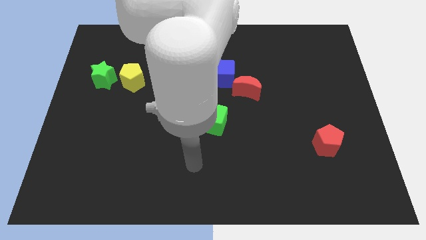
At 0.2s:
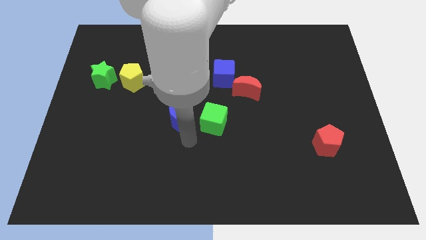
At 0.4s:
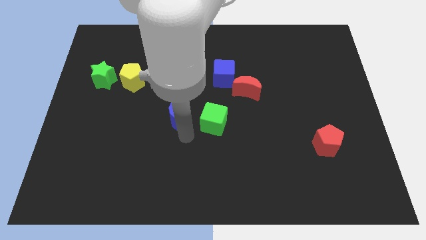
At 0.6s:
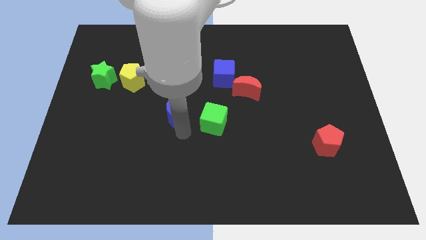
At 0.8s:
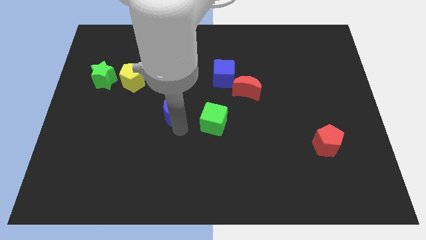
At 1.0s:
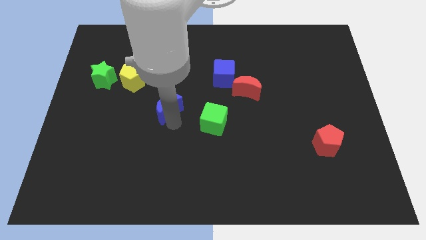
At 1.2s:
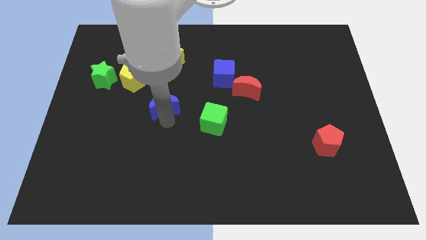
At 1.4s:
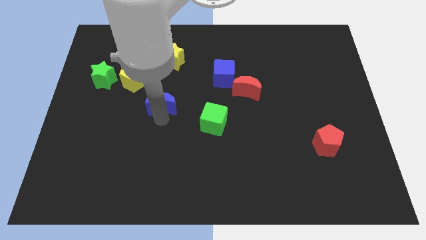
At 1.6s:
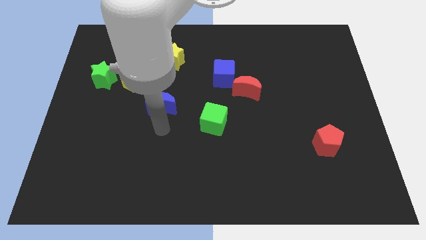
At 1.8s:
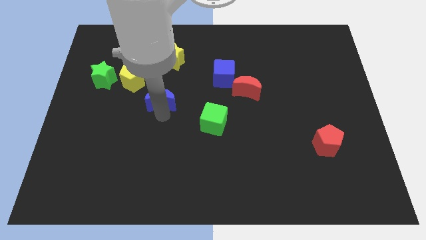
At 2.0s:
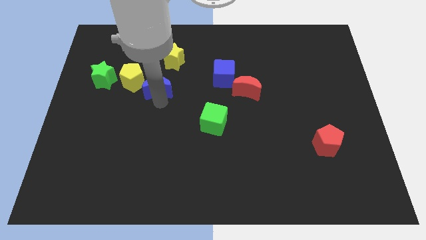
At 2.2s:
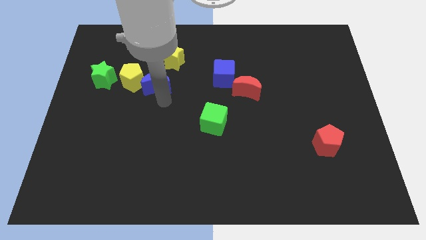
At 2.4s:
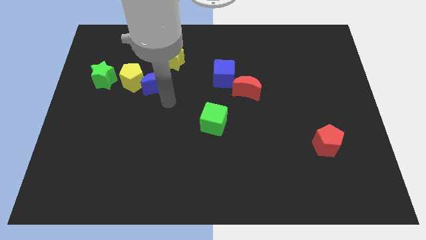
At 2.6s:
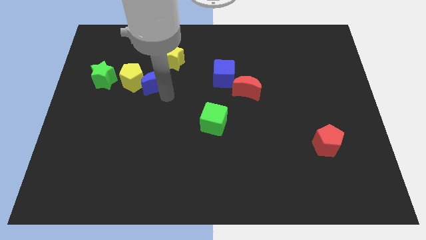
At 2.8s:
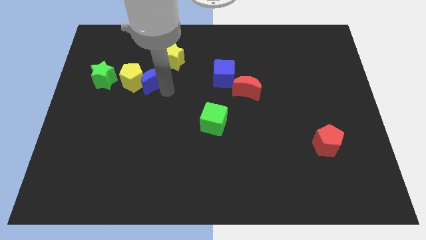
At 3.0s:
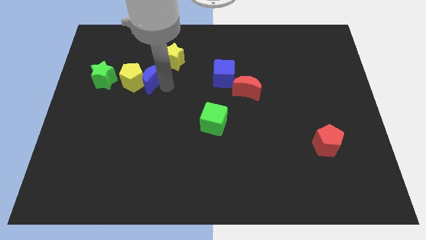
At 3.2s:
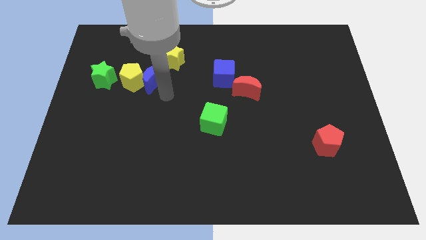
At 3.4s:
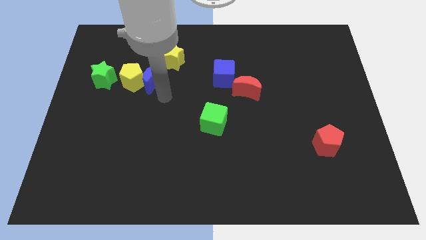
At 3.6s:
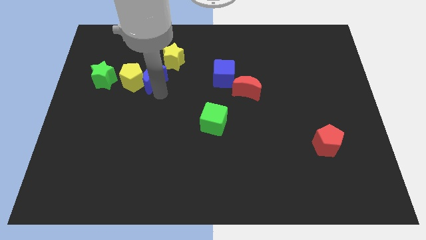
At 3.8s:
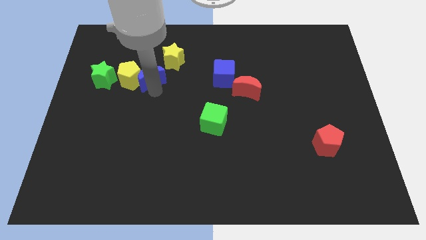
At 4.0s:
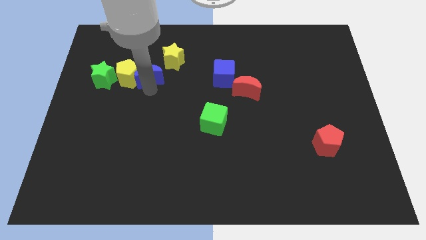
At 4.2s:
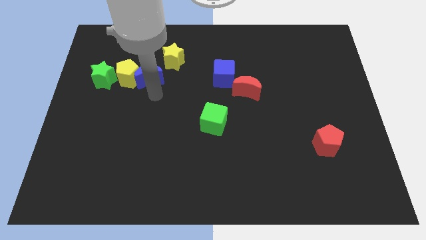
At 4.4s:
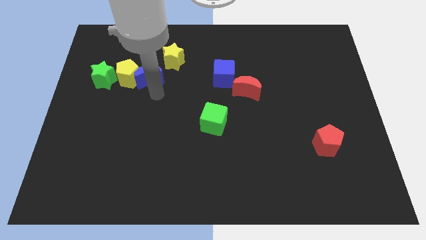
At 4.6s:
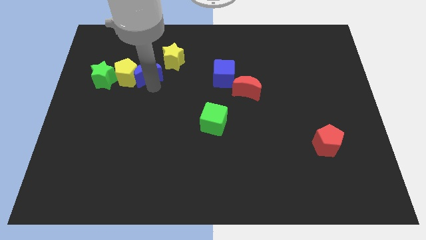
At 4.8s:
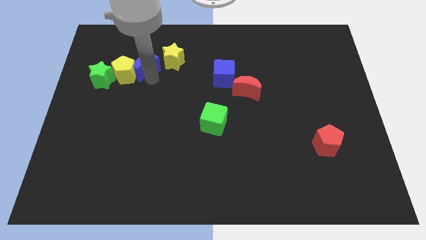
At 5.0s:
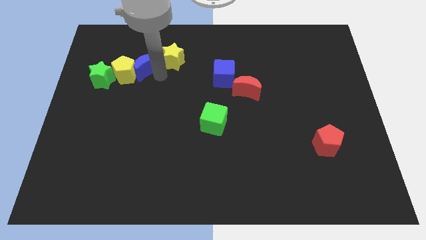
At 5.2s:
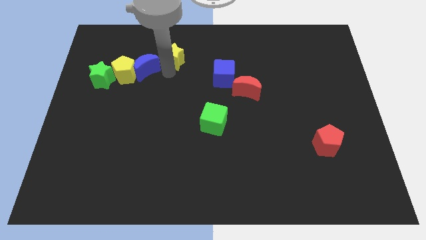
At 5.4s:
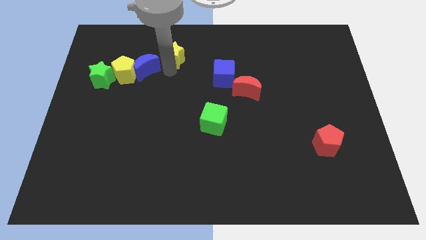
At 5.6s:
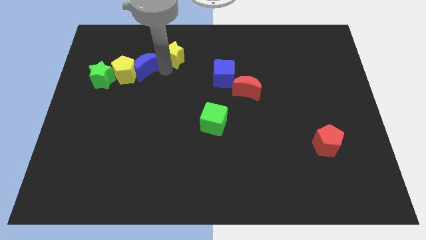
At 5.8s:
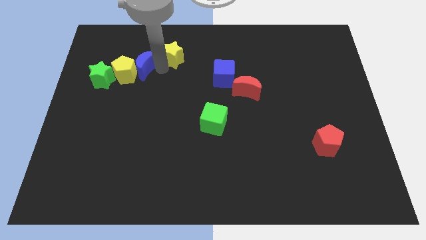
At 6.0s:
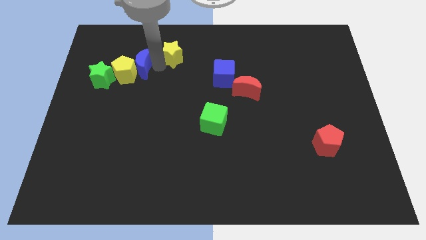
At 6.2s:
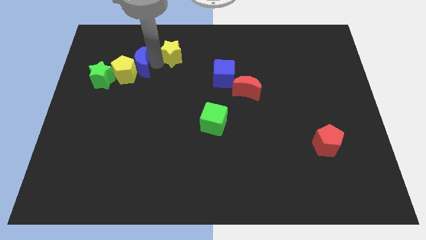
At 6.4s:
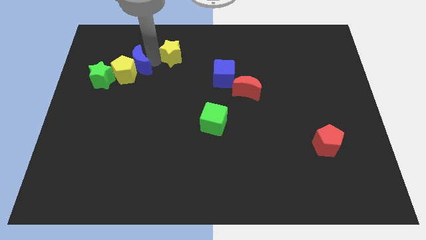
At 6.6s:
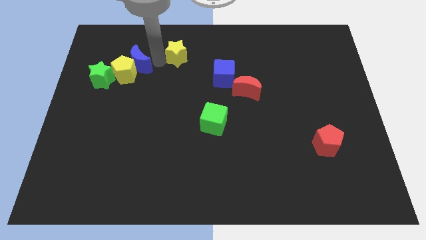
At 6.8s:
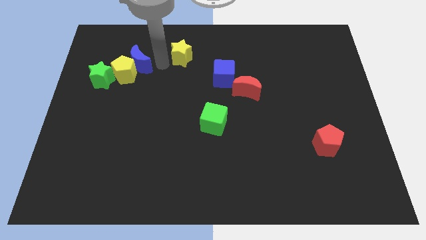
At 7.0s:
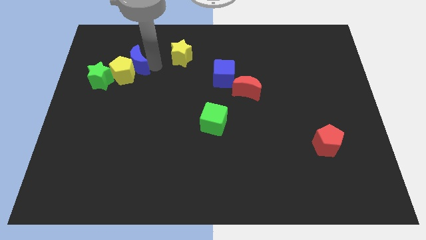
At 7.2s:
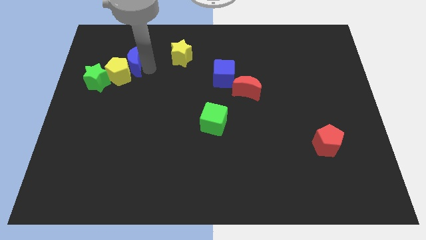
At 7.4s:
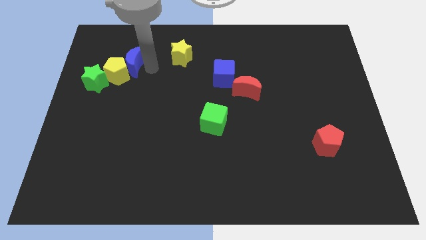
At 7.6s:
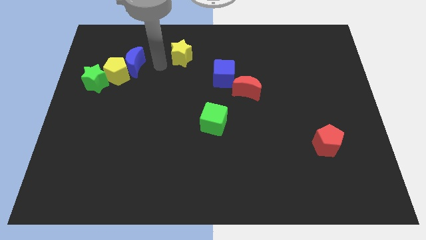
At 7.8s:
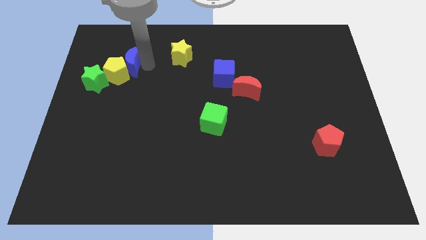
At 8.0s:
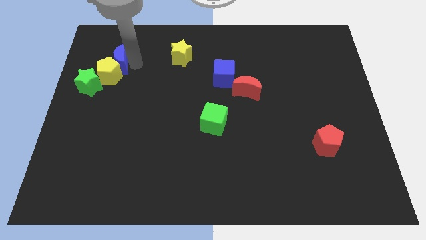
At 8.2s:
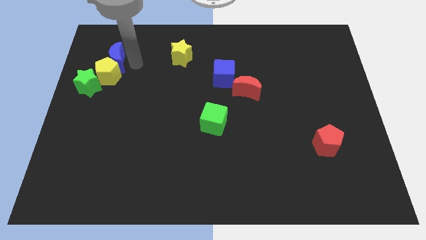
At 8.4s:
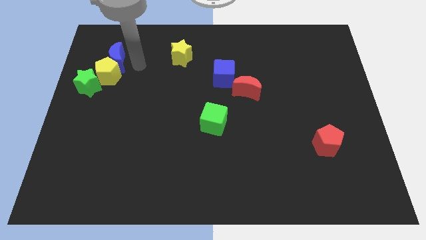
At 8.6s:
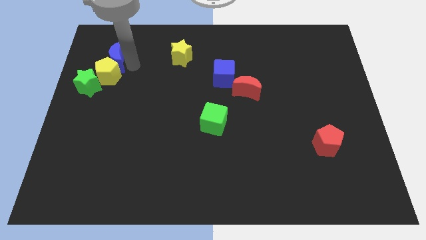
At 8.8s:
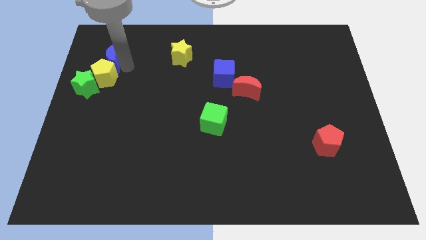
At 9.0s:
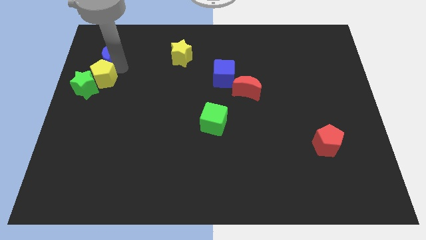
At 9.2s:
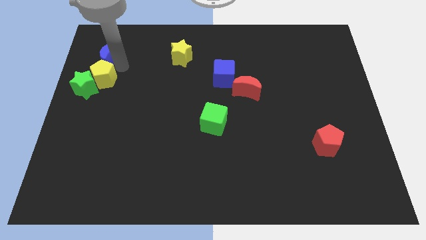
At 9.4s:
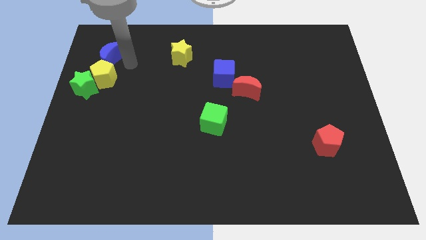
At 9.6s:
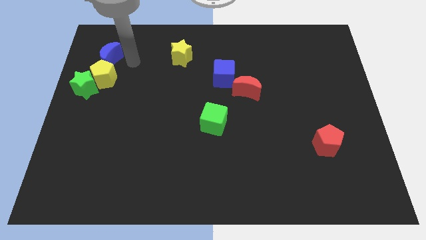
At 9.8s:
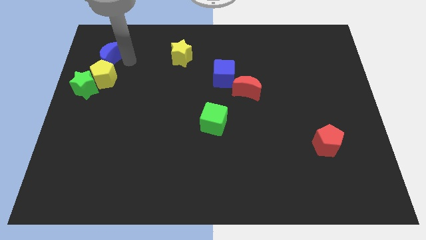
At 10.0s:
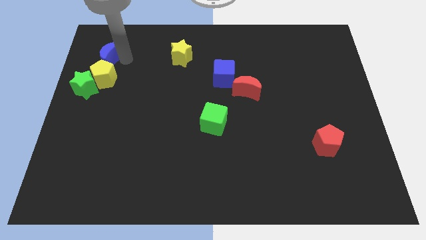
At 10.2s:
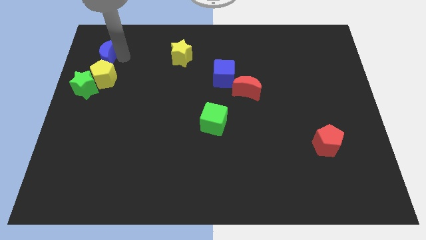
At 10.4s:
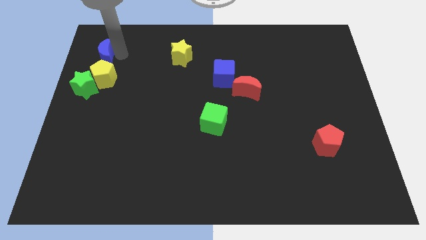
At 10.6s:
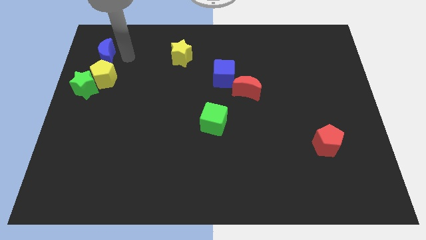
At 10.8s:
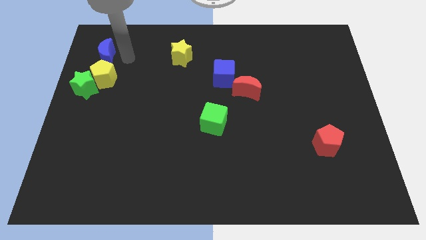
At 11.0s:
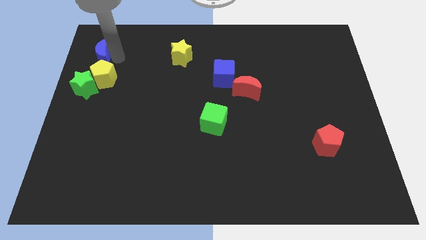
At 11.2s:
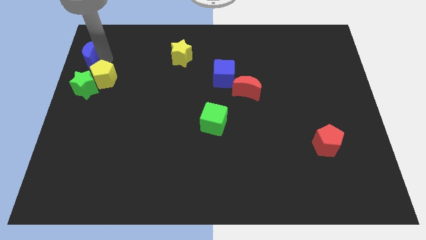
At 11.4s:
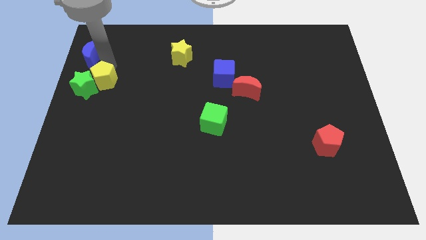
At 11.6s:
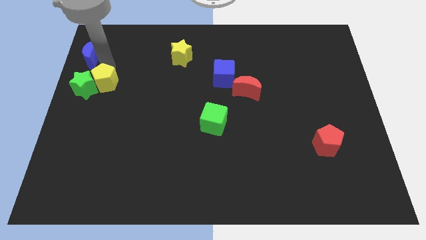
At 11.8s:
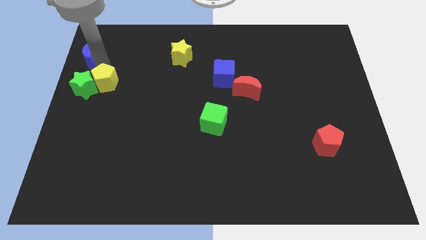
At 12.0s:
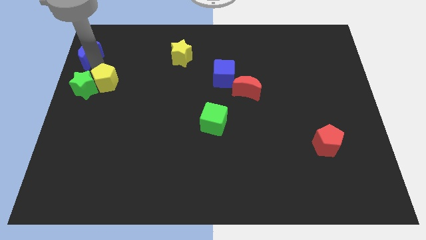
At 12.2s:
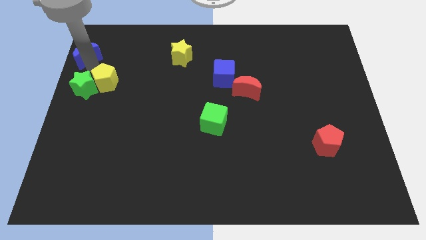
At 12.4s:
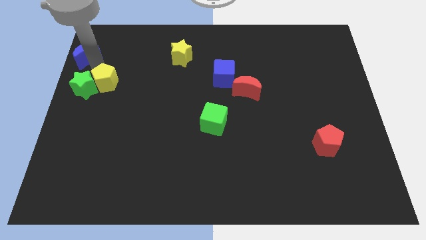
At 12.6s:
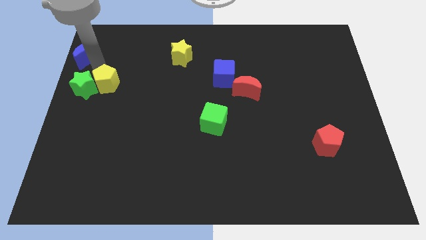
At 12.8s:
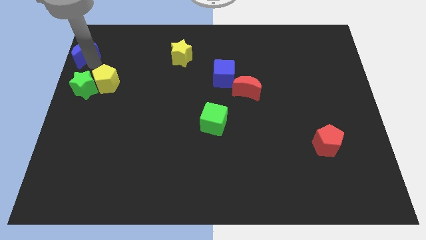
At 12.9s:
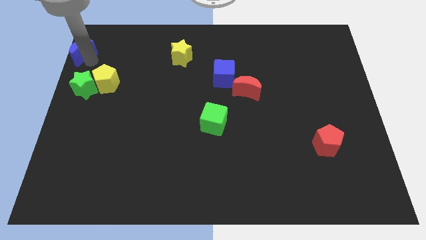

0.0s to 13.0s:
push the blue moon to the top left
